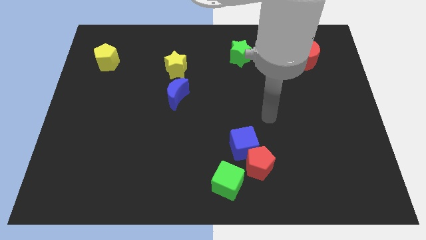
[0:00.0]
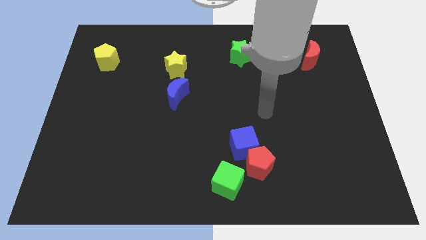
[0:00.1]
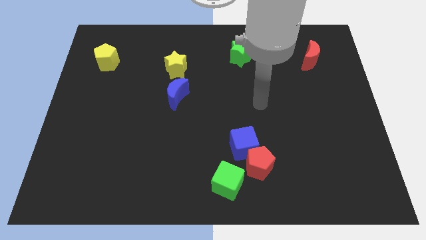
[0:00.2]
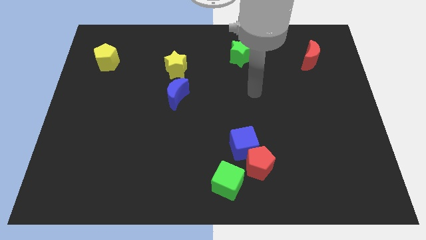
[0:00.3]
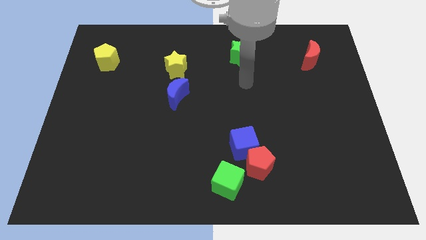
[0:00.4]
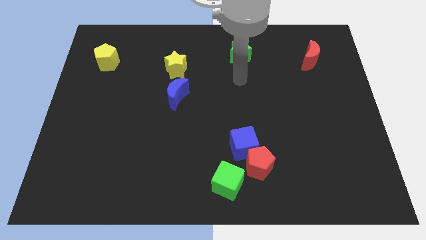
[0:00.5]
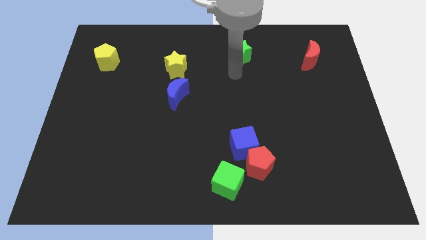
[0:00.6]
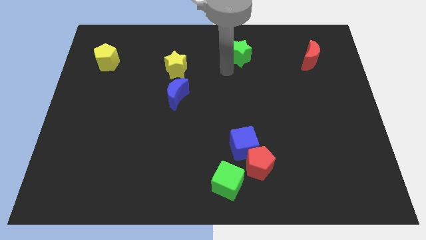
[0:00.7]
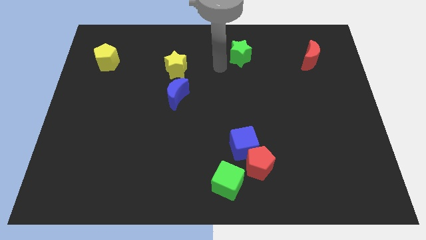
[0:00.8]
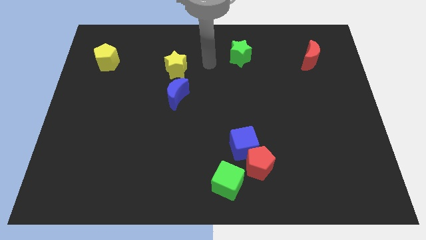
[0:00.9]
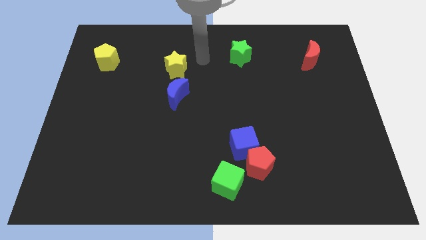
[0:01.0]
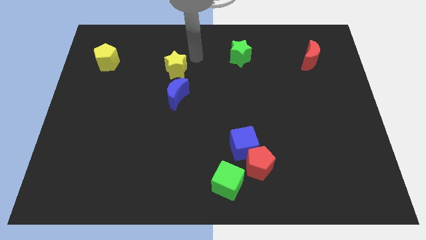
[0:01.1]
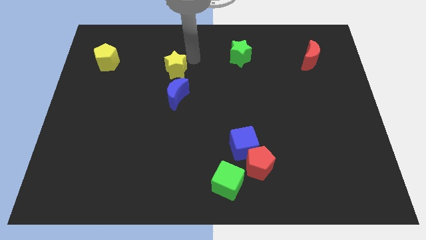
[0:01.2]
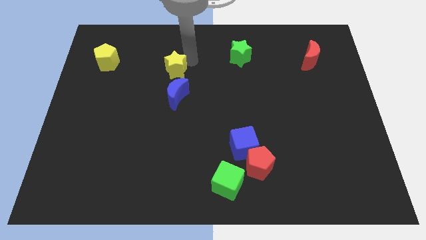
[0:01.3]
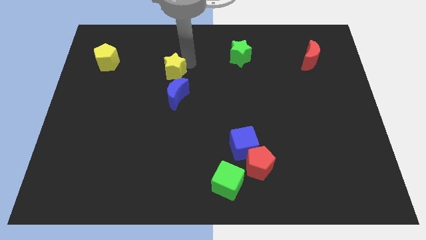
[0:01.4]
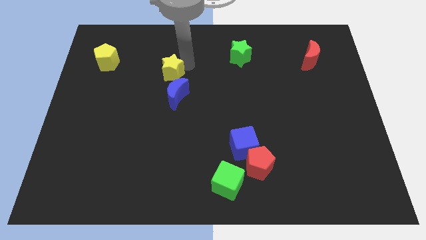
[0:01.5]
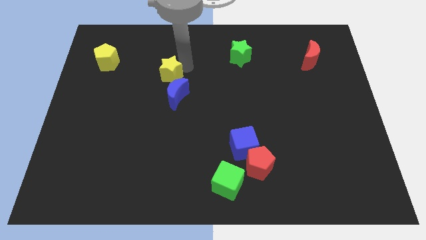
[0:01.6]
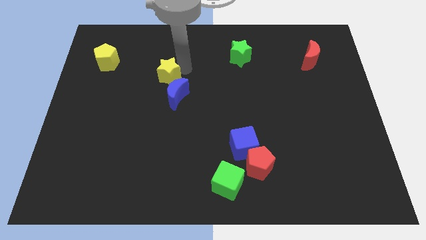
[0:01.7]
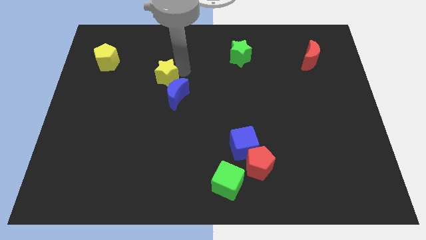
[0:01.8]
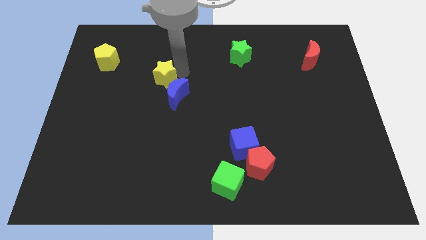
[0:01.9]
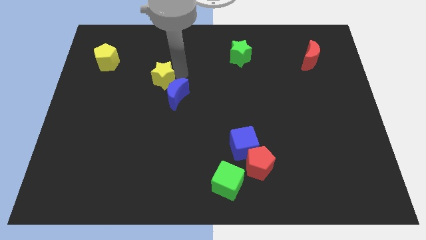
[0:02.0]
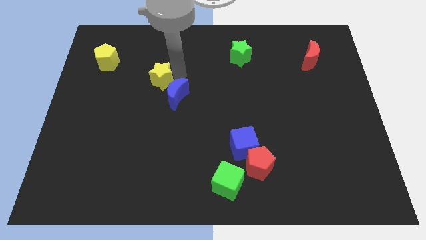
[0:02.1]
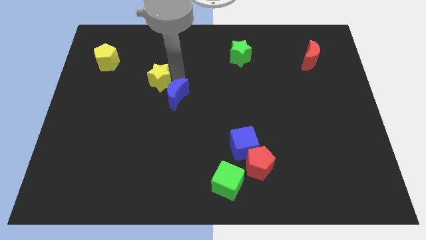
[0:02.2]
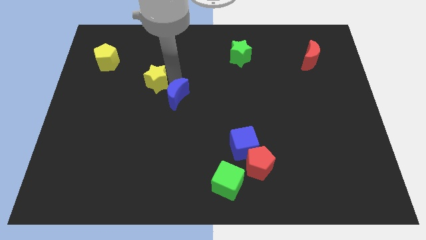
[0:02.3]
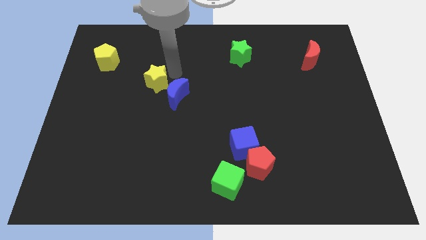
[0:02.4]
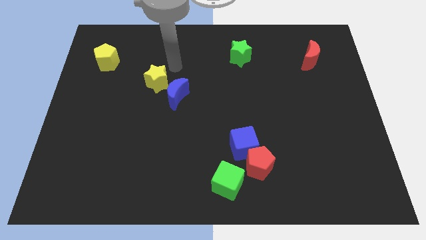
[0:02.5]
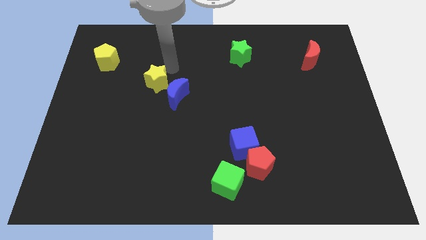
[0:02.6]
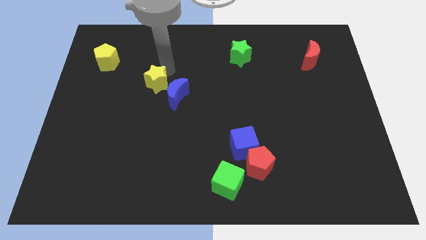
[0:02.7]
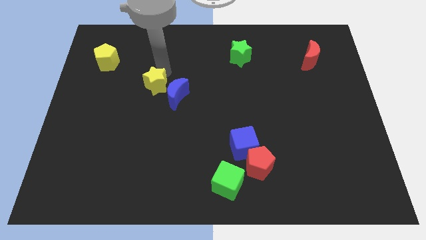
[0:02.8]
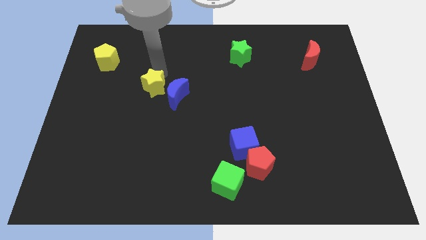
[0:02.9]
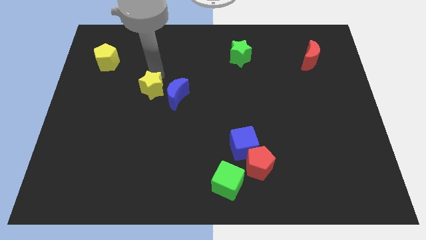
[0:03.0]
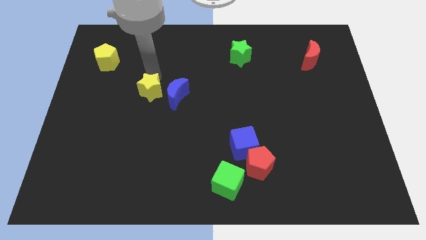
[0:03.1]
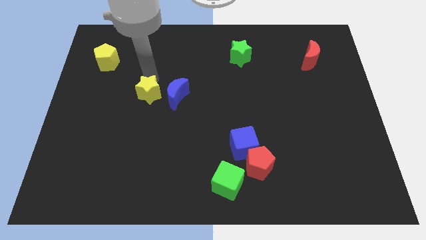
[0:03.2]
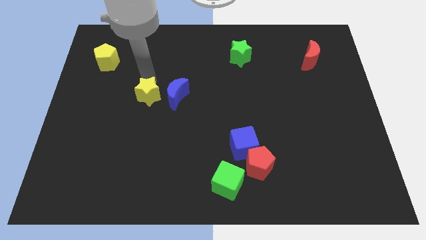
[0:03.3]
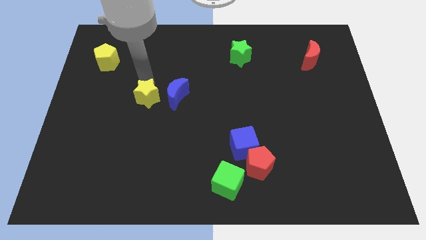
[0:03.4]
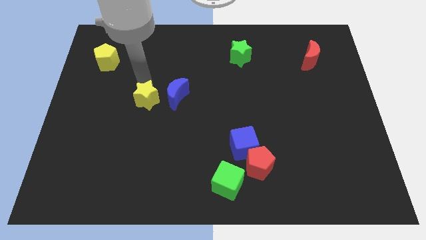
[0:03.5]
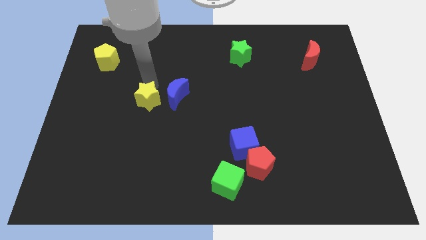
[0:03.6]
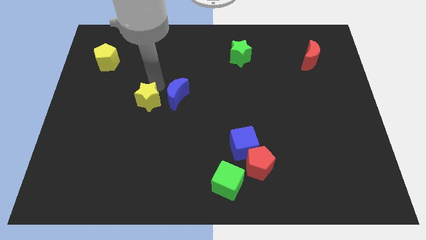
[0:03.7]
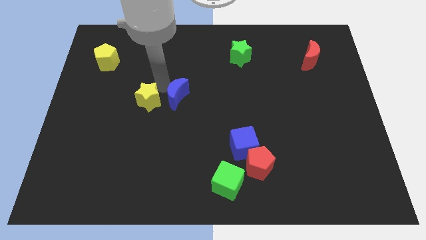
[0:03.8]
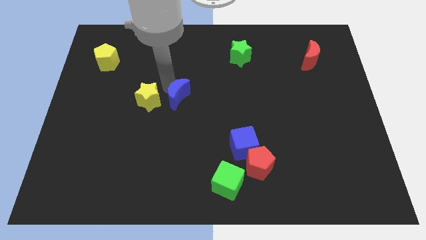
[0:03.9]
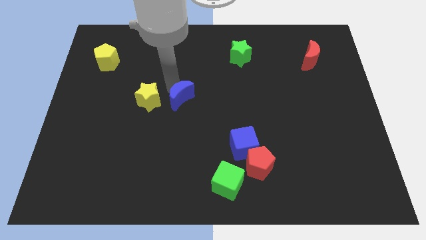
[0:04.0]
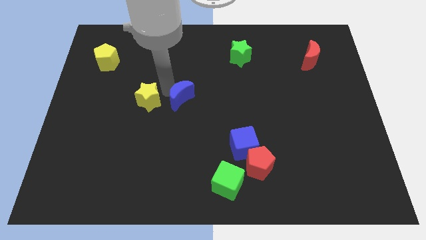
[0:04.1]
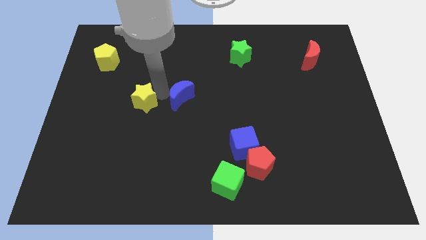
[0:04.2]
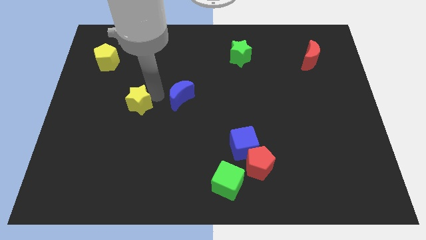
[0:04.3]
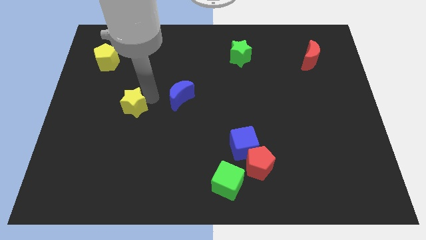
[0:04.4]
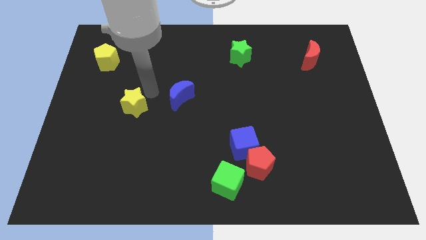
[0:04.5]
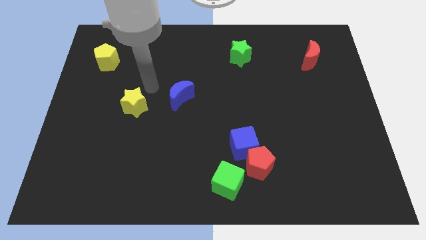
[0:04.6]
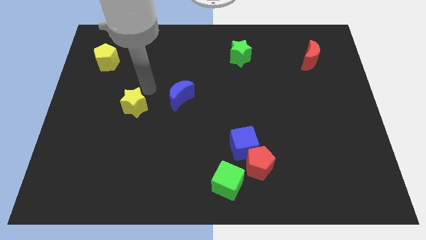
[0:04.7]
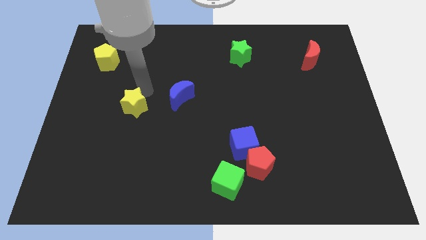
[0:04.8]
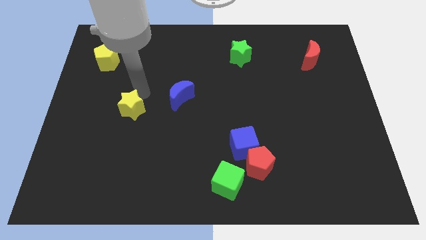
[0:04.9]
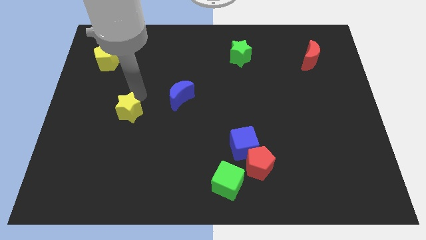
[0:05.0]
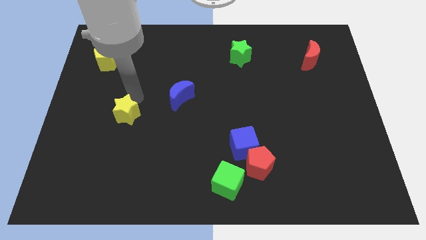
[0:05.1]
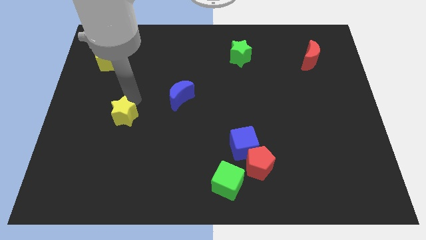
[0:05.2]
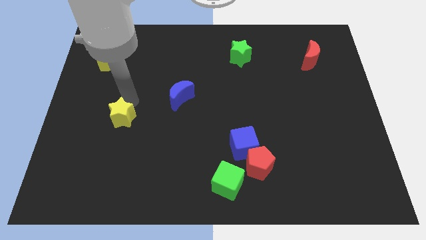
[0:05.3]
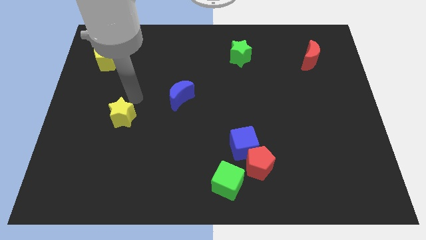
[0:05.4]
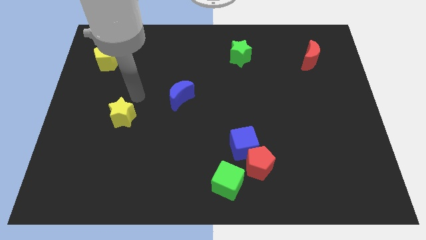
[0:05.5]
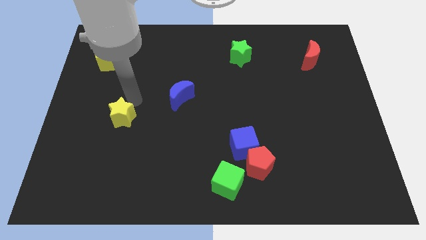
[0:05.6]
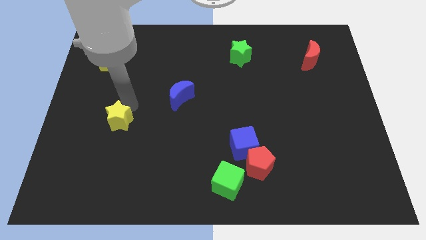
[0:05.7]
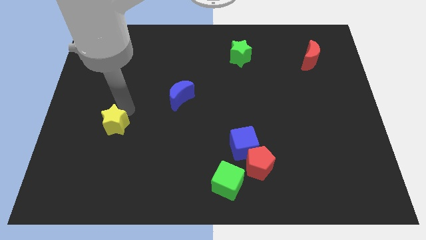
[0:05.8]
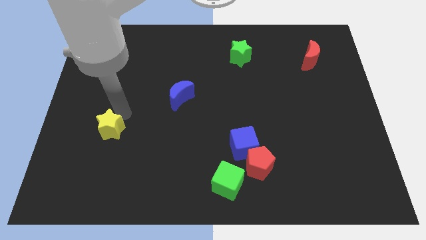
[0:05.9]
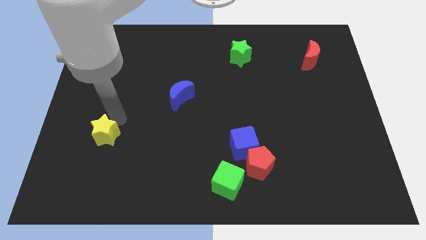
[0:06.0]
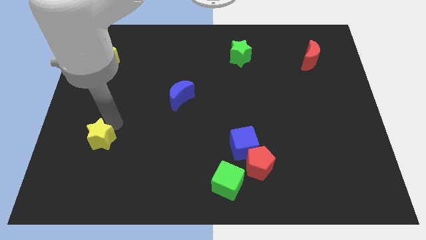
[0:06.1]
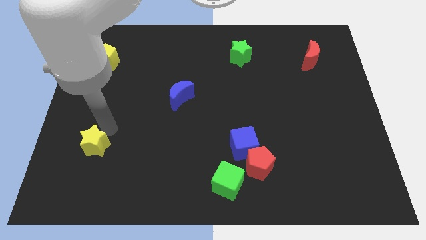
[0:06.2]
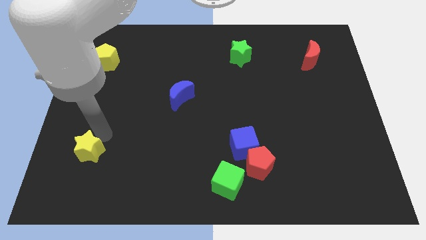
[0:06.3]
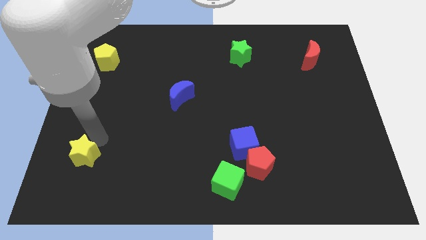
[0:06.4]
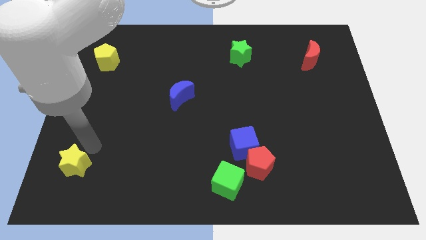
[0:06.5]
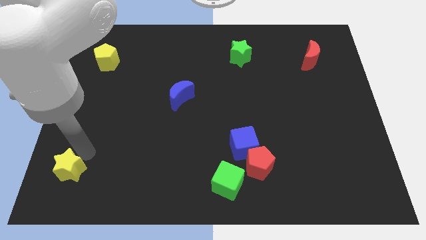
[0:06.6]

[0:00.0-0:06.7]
put the yellow star to the lower left corner
